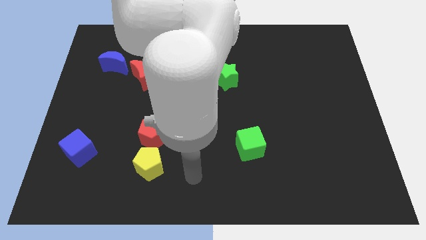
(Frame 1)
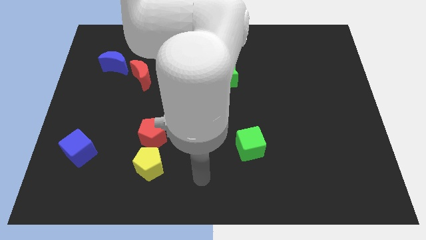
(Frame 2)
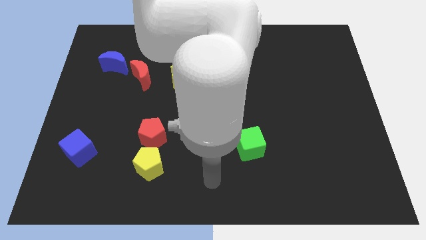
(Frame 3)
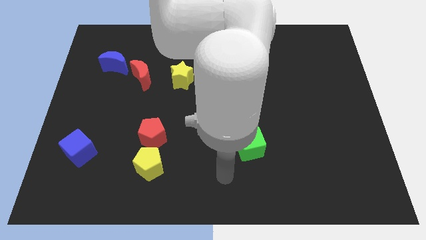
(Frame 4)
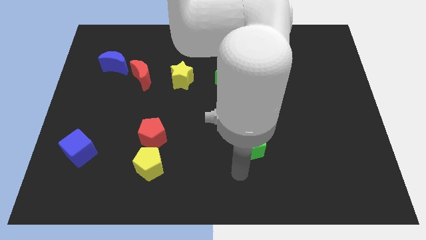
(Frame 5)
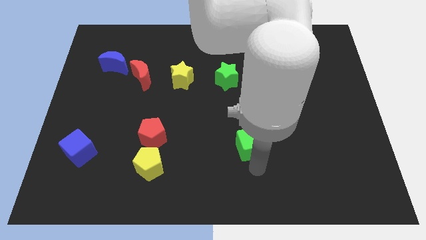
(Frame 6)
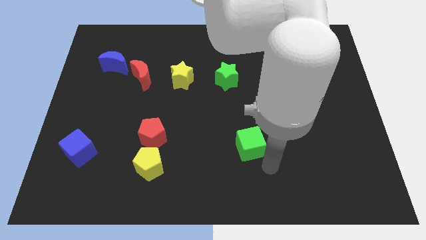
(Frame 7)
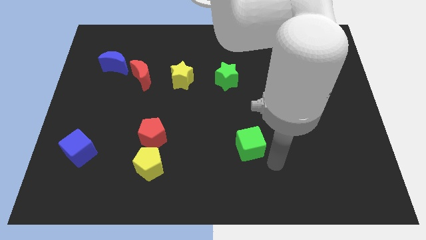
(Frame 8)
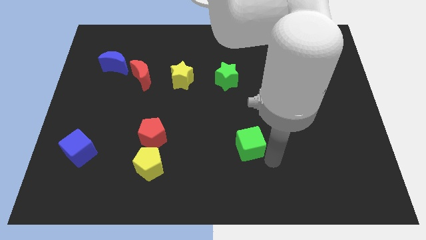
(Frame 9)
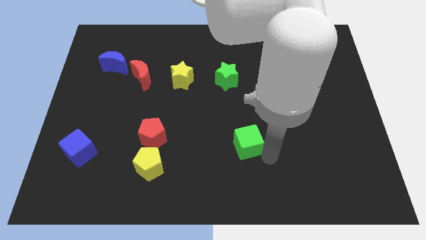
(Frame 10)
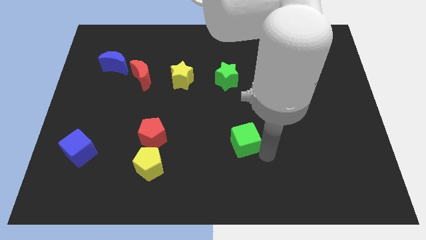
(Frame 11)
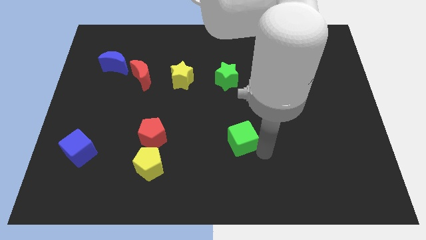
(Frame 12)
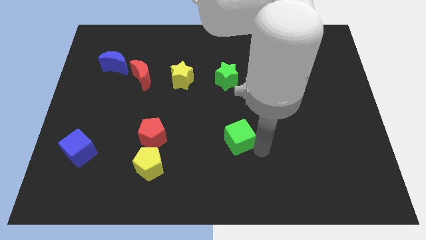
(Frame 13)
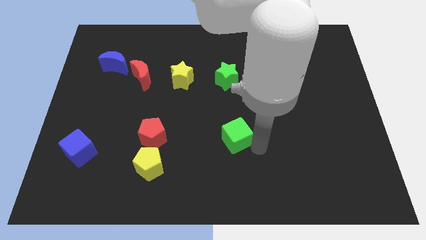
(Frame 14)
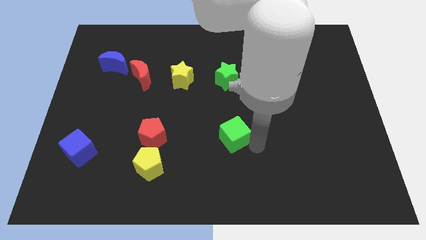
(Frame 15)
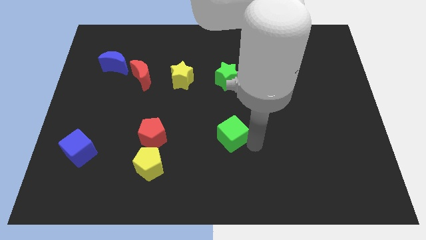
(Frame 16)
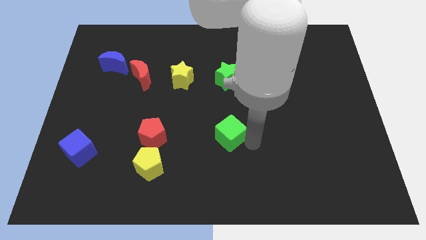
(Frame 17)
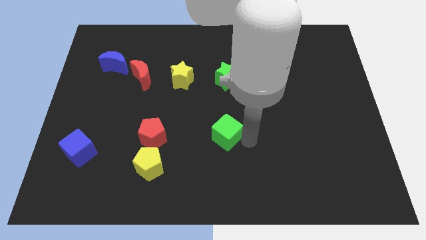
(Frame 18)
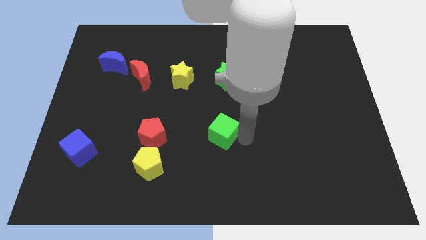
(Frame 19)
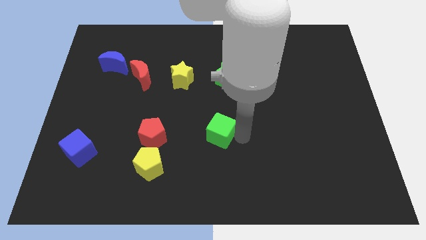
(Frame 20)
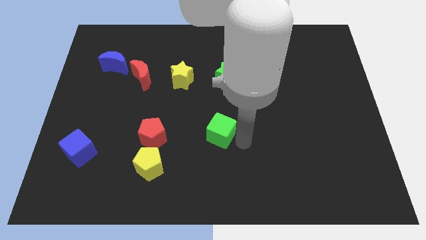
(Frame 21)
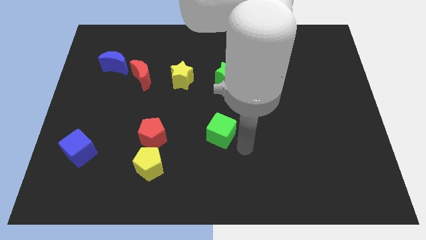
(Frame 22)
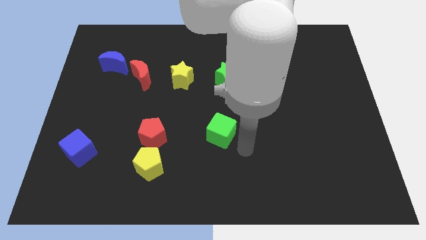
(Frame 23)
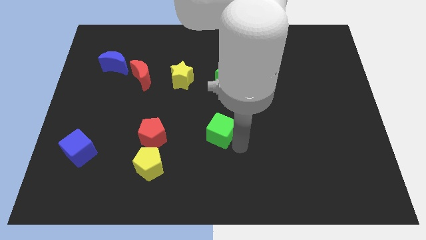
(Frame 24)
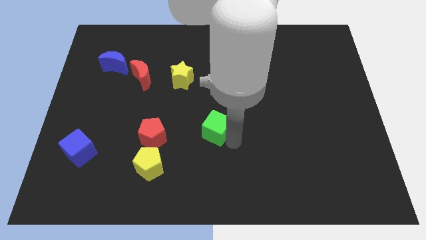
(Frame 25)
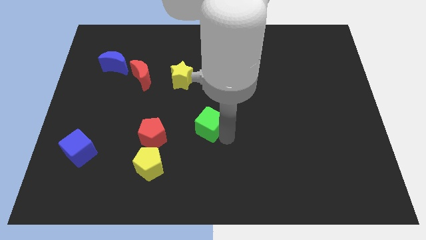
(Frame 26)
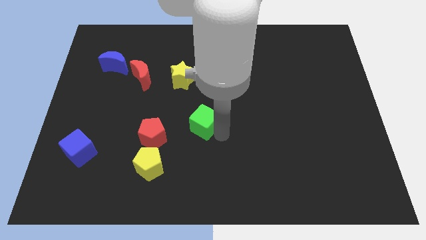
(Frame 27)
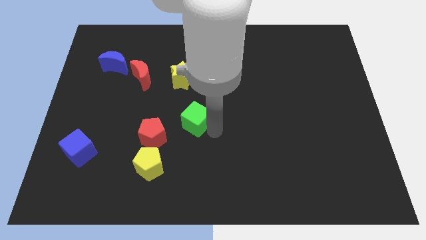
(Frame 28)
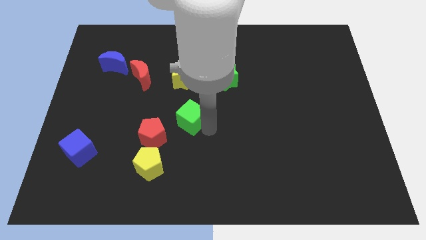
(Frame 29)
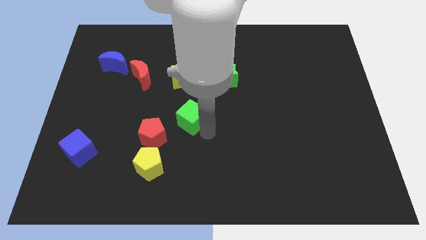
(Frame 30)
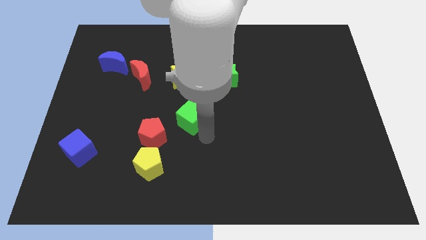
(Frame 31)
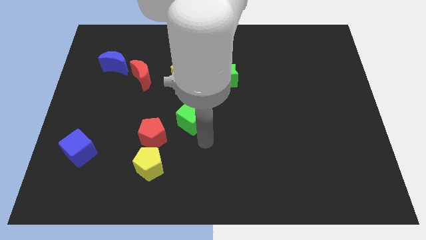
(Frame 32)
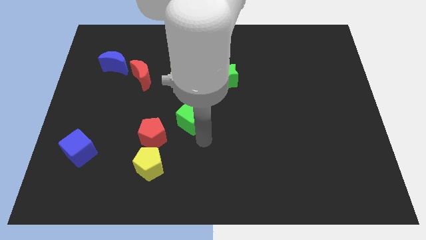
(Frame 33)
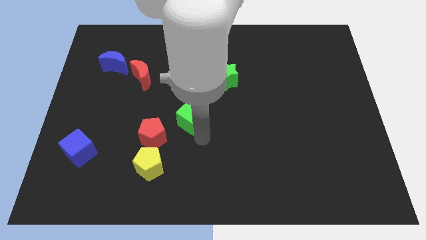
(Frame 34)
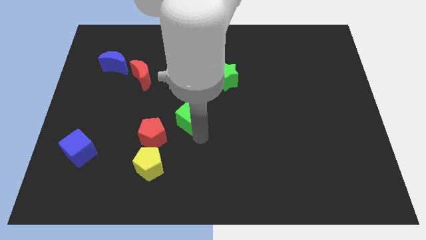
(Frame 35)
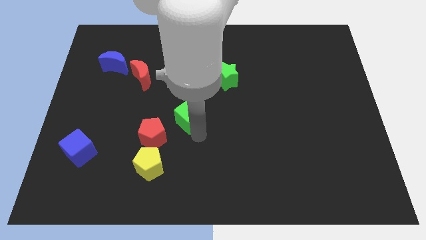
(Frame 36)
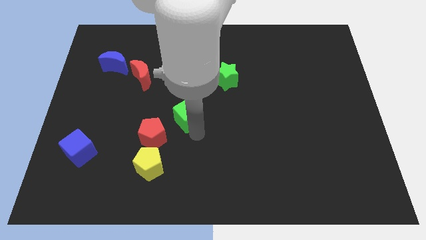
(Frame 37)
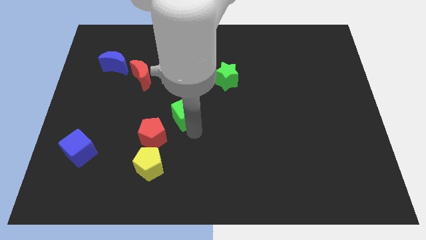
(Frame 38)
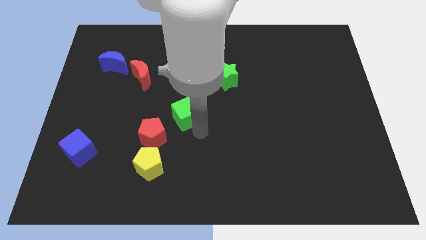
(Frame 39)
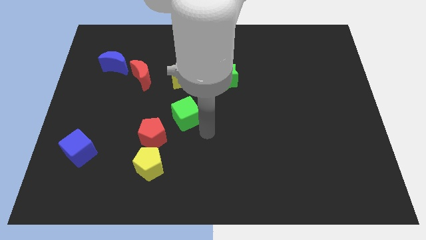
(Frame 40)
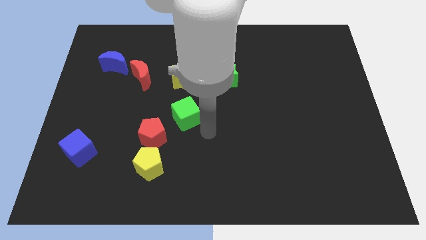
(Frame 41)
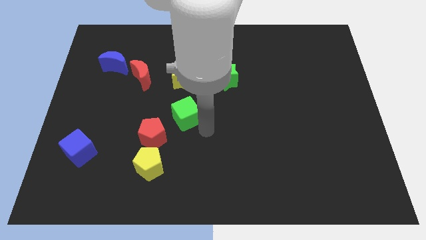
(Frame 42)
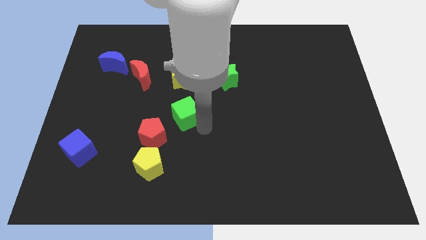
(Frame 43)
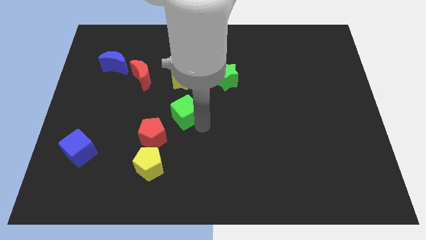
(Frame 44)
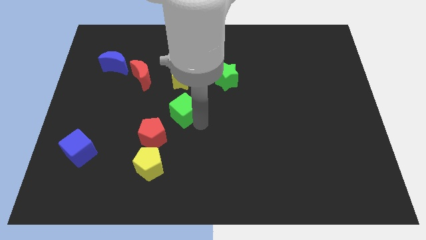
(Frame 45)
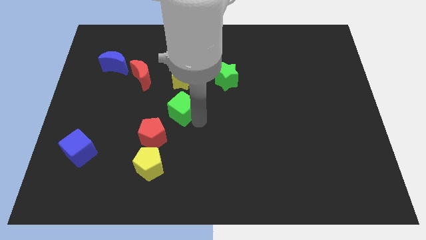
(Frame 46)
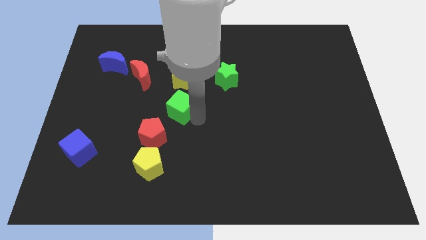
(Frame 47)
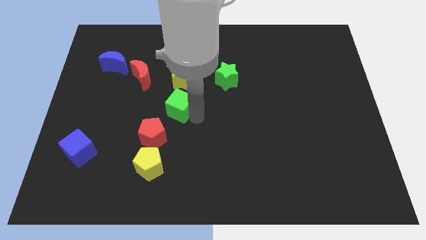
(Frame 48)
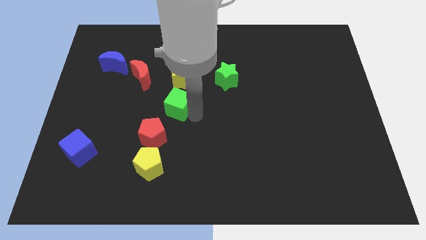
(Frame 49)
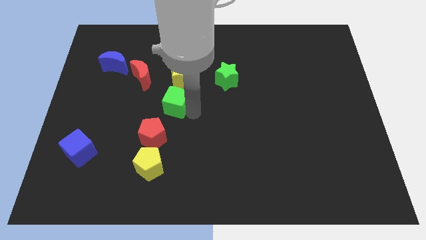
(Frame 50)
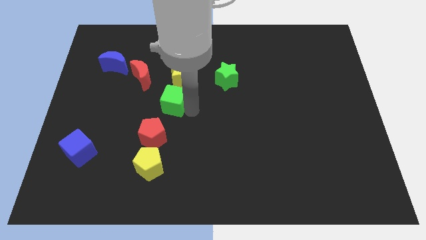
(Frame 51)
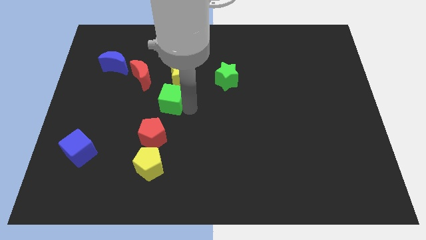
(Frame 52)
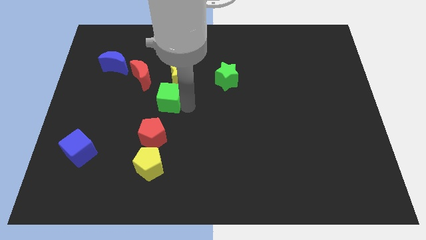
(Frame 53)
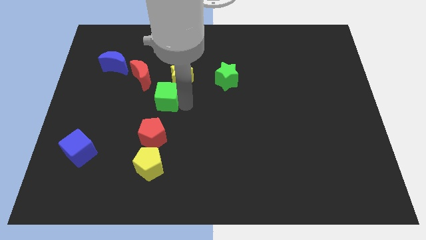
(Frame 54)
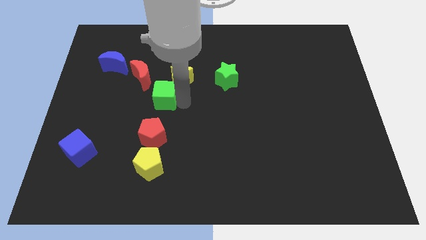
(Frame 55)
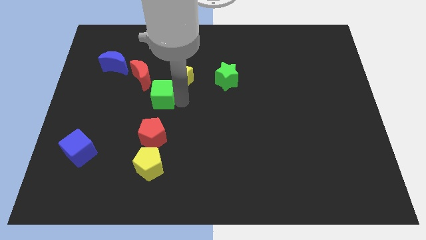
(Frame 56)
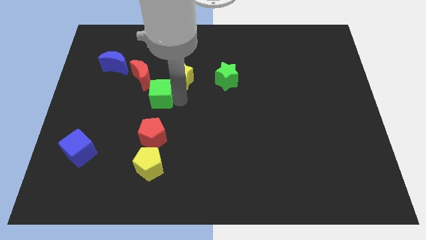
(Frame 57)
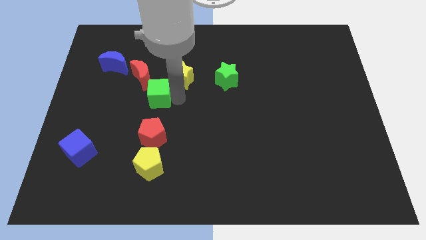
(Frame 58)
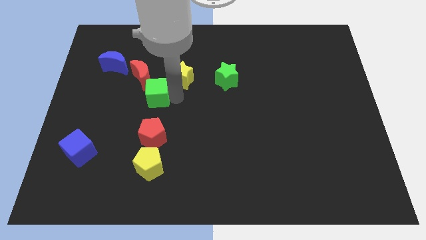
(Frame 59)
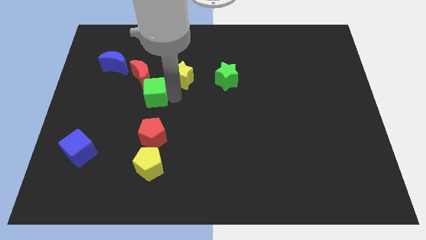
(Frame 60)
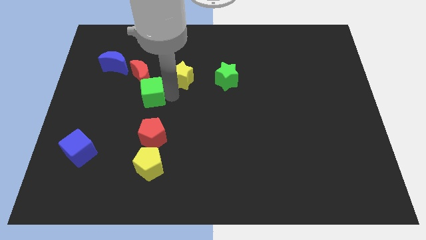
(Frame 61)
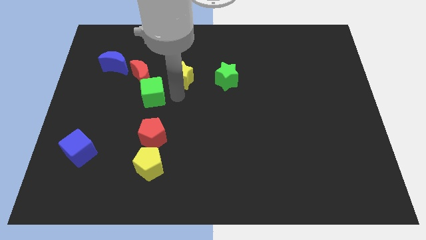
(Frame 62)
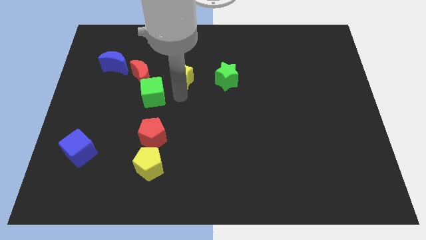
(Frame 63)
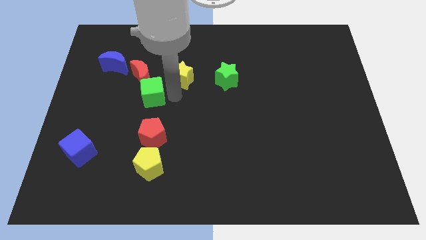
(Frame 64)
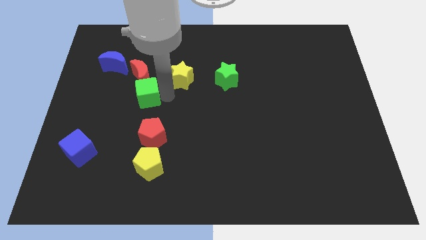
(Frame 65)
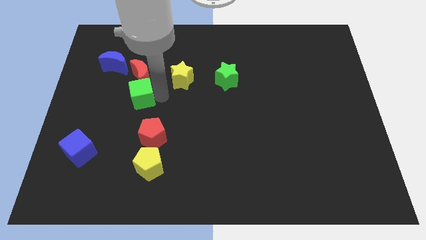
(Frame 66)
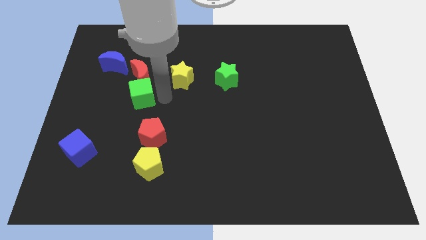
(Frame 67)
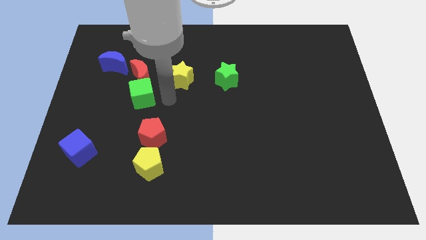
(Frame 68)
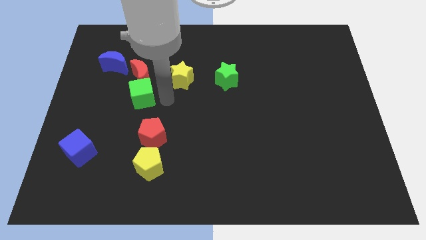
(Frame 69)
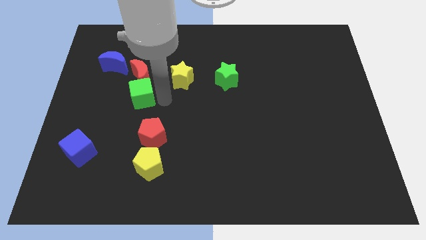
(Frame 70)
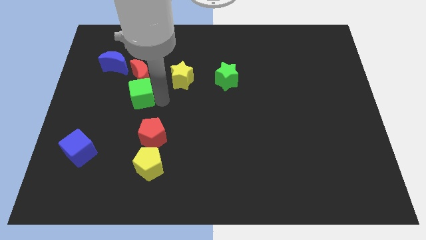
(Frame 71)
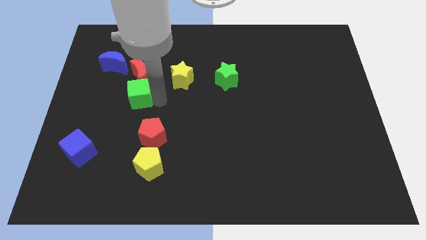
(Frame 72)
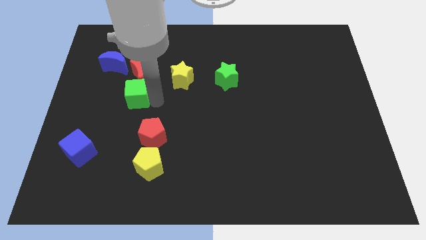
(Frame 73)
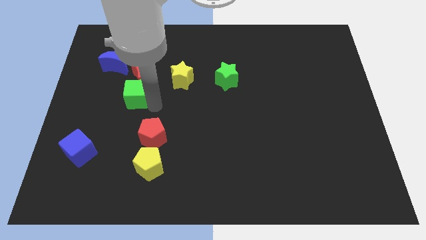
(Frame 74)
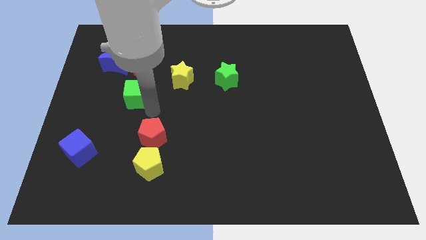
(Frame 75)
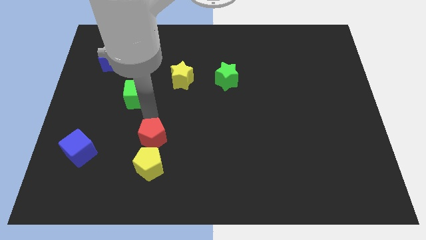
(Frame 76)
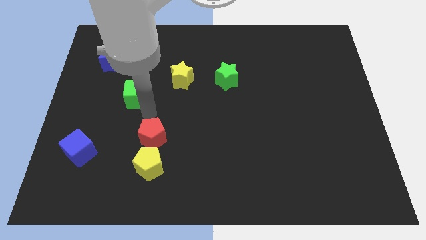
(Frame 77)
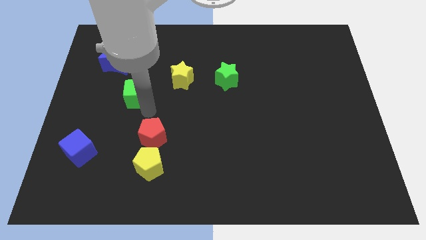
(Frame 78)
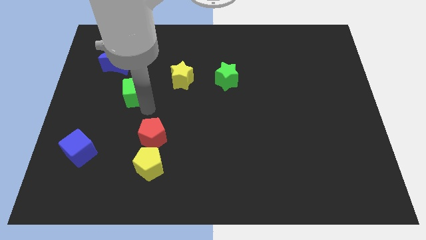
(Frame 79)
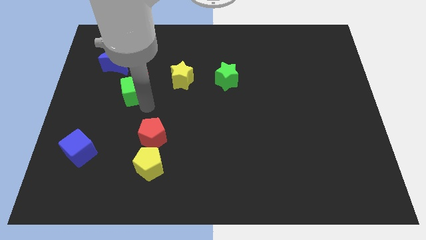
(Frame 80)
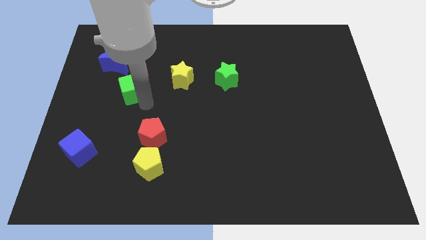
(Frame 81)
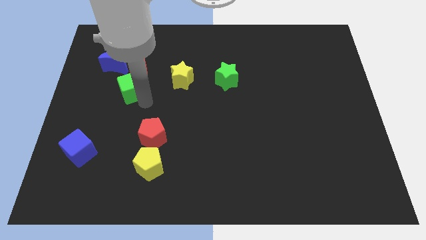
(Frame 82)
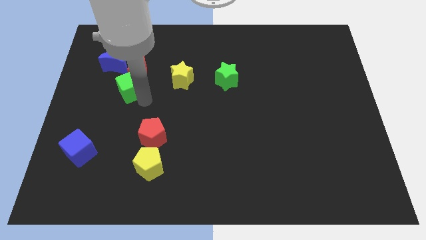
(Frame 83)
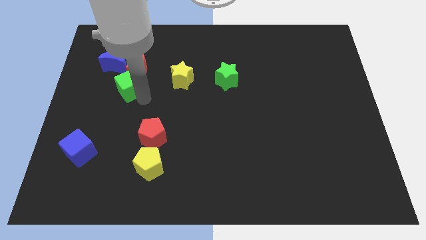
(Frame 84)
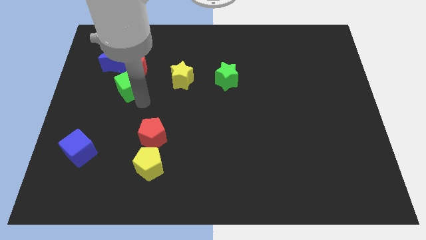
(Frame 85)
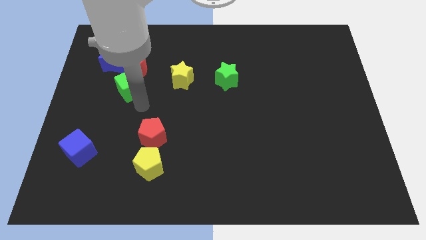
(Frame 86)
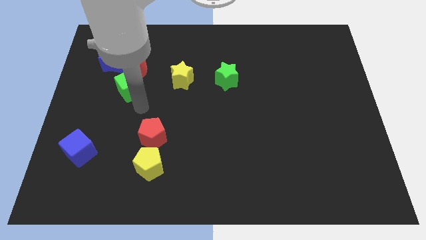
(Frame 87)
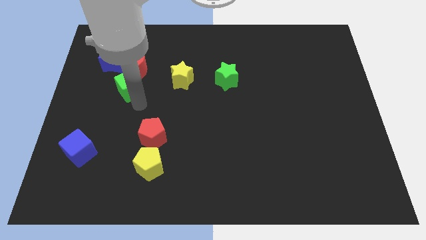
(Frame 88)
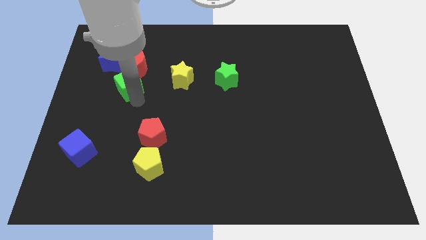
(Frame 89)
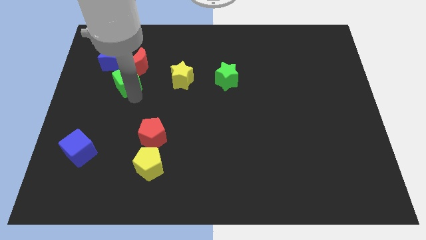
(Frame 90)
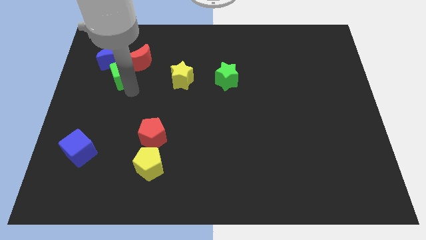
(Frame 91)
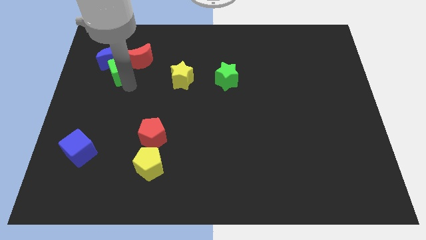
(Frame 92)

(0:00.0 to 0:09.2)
slide the green cube close to the blue moon
